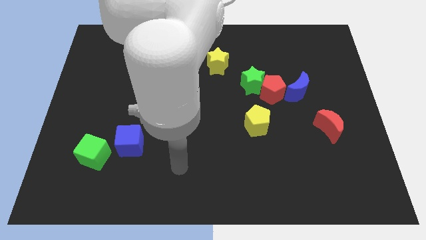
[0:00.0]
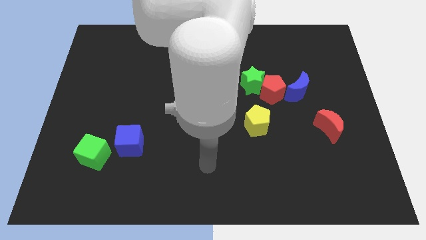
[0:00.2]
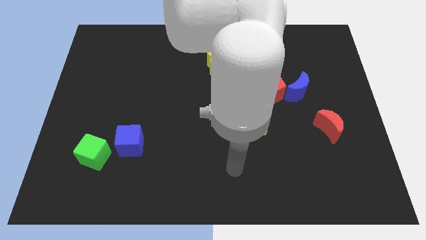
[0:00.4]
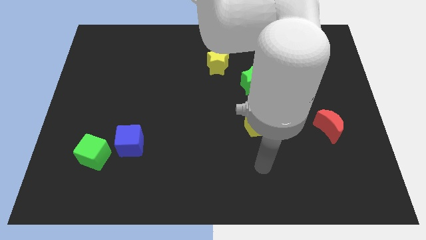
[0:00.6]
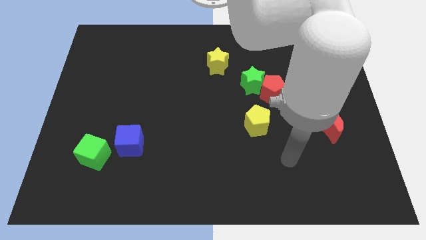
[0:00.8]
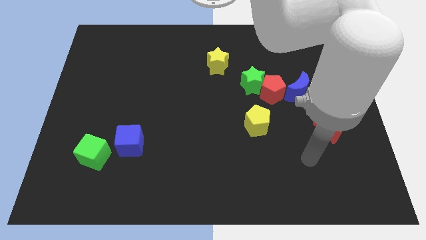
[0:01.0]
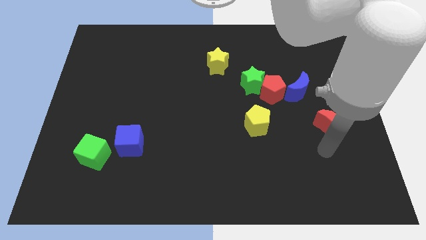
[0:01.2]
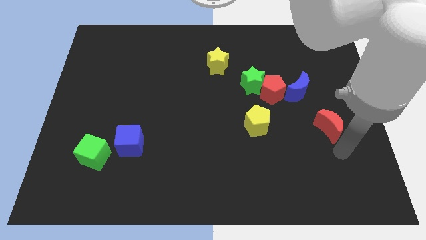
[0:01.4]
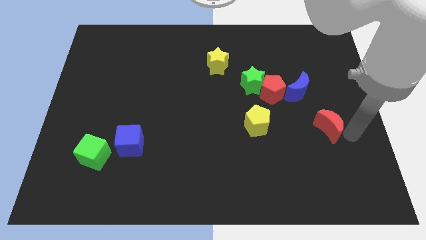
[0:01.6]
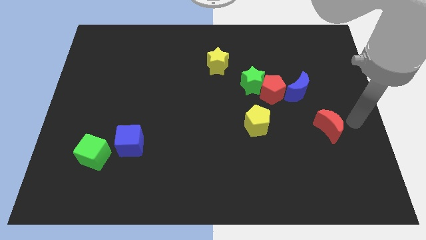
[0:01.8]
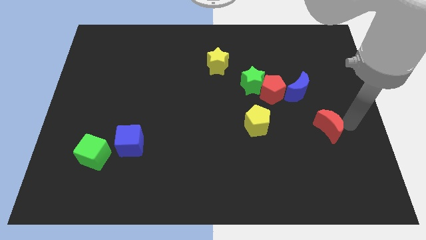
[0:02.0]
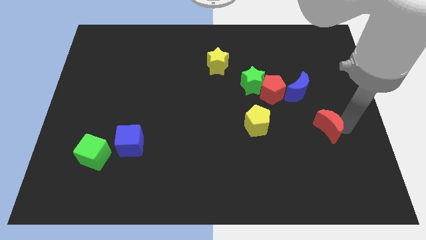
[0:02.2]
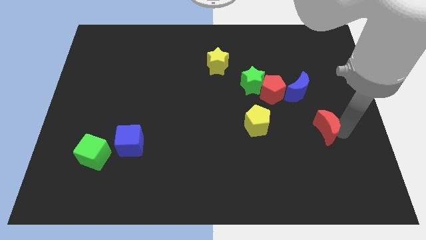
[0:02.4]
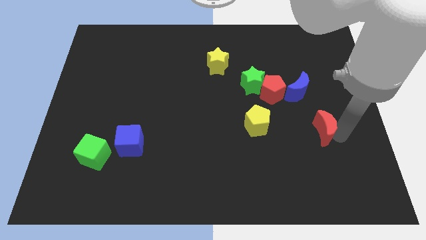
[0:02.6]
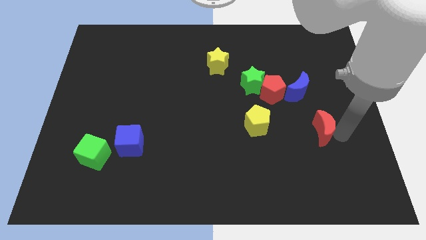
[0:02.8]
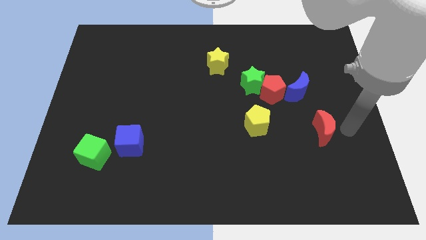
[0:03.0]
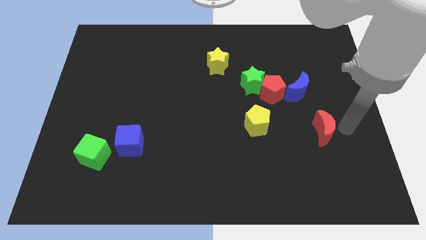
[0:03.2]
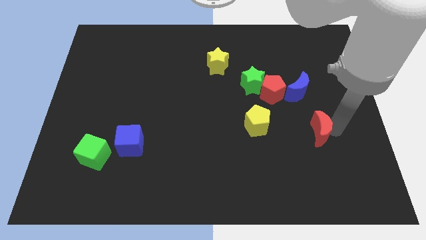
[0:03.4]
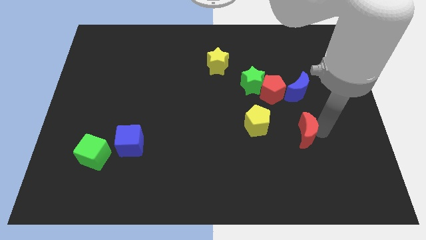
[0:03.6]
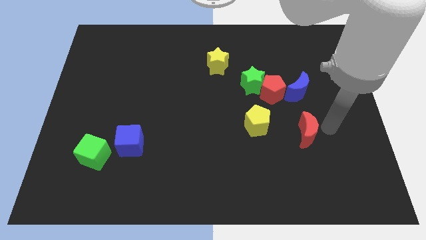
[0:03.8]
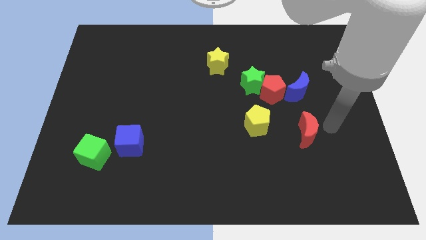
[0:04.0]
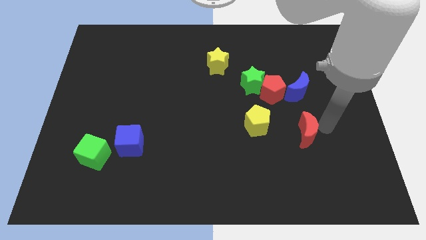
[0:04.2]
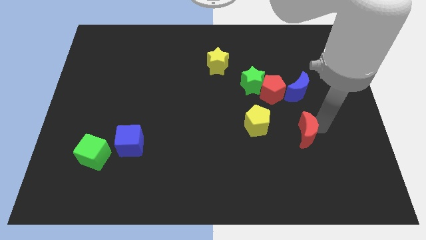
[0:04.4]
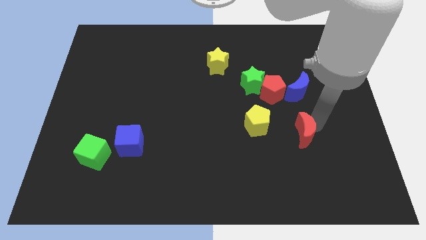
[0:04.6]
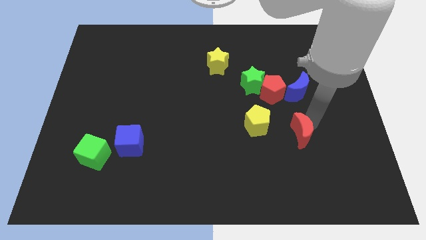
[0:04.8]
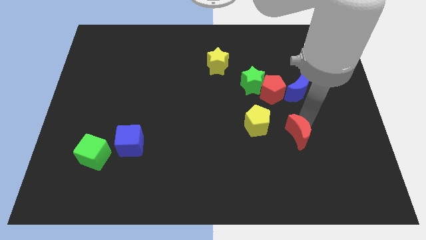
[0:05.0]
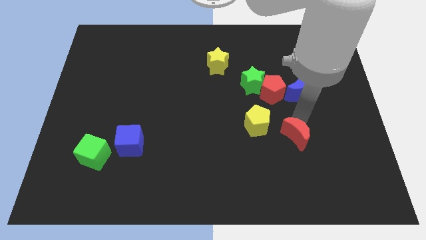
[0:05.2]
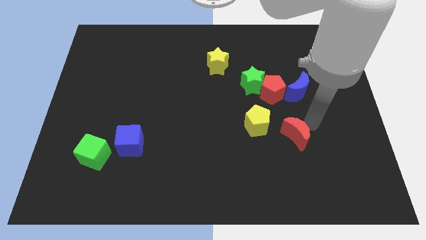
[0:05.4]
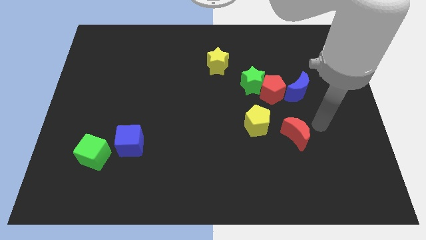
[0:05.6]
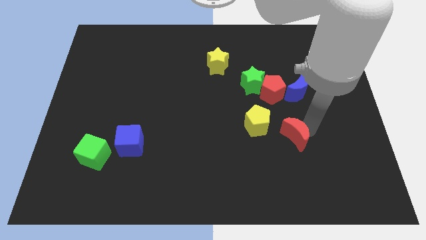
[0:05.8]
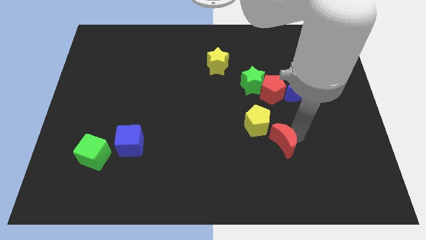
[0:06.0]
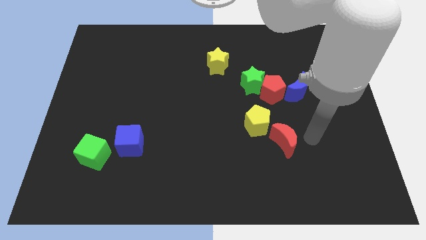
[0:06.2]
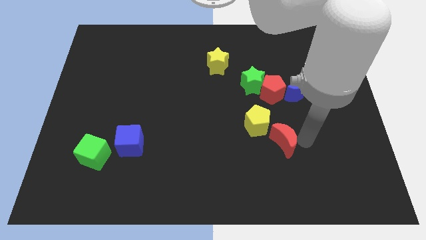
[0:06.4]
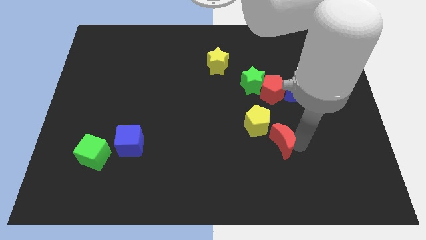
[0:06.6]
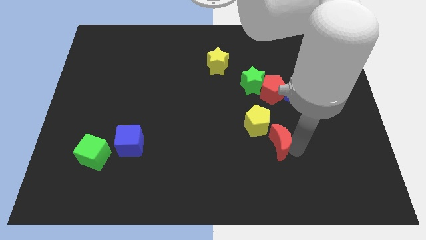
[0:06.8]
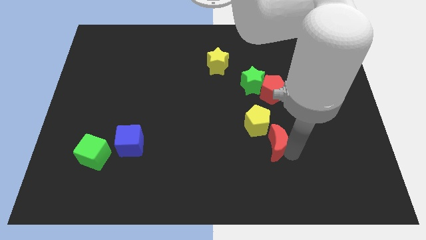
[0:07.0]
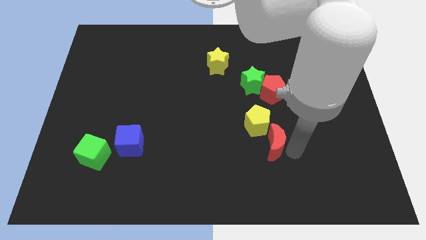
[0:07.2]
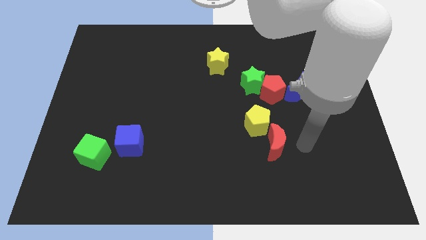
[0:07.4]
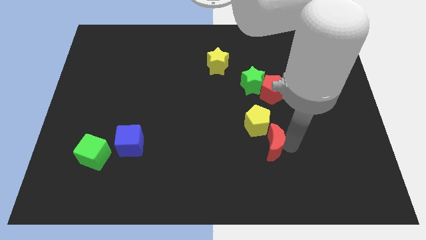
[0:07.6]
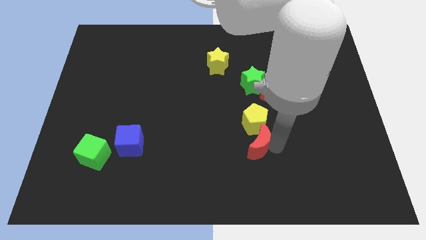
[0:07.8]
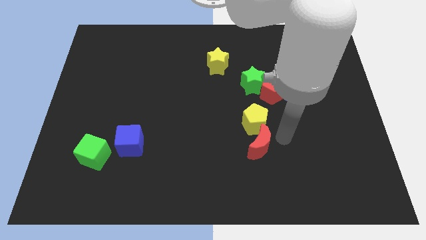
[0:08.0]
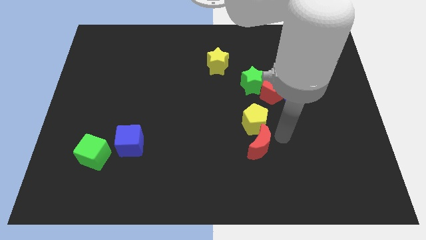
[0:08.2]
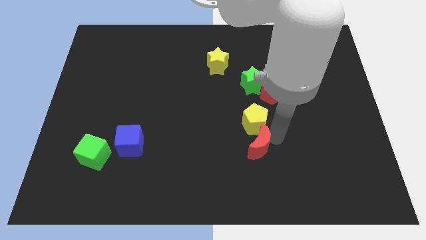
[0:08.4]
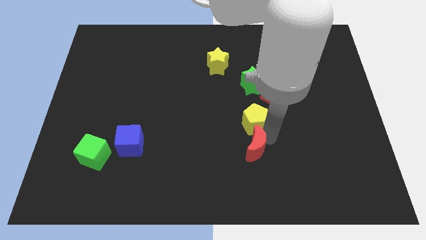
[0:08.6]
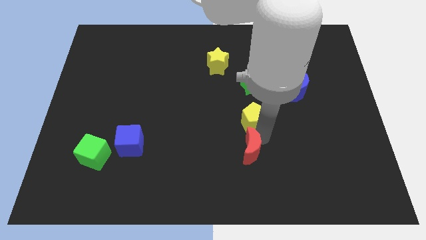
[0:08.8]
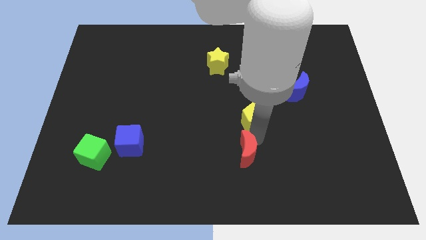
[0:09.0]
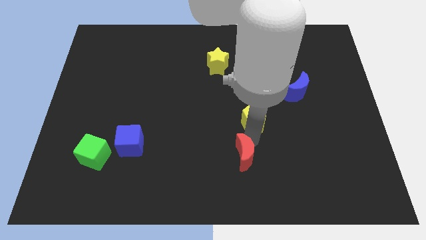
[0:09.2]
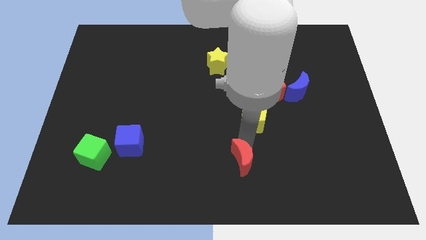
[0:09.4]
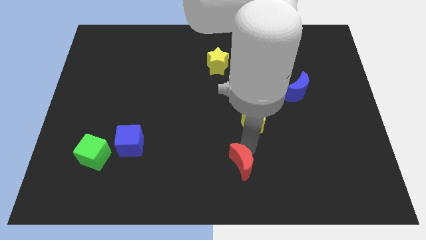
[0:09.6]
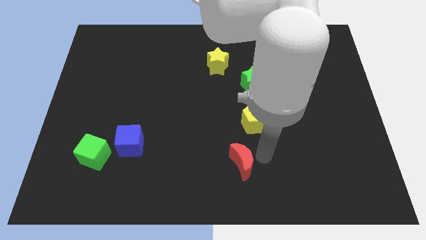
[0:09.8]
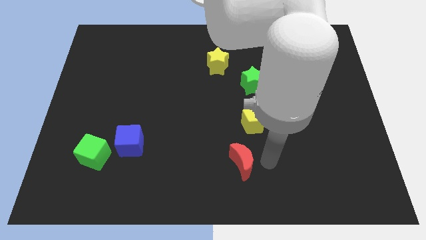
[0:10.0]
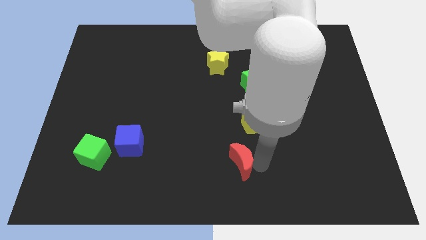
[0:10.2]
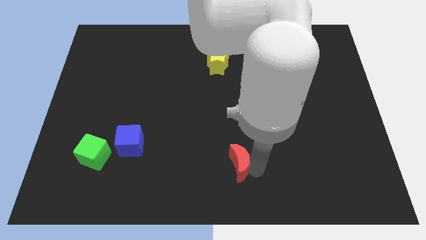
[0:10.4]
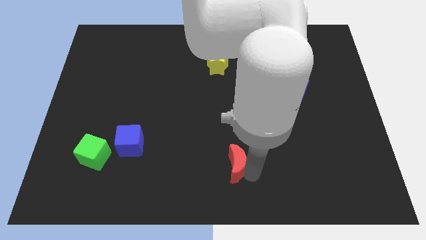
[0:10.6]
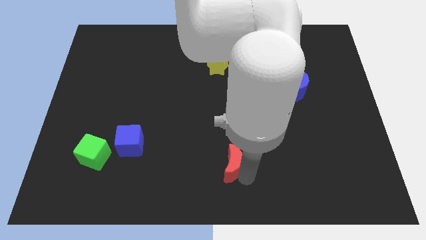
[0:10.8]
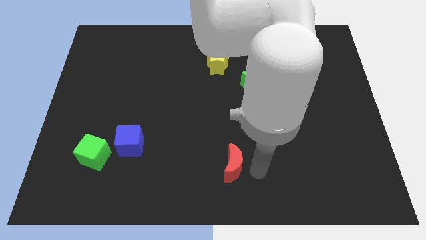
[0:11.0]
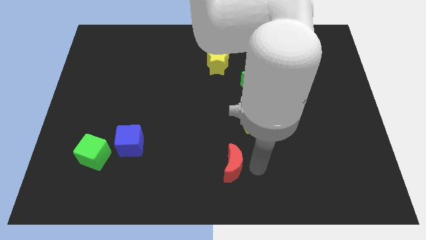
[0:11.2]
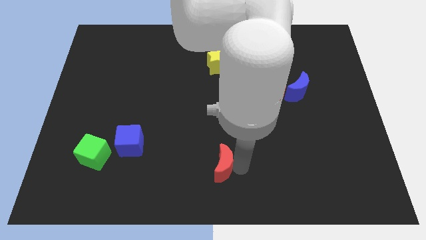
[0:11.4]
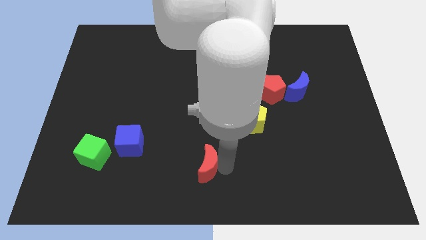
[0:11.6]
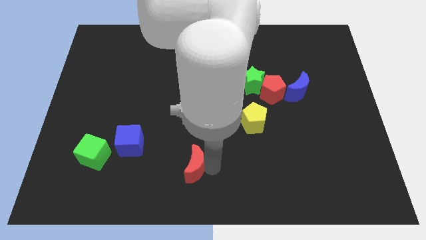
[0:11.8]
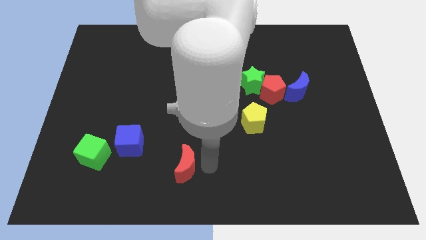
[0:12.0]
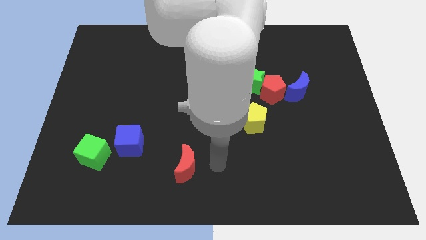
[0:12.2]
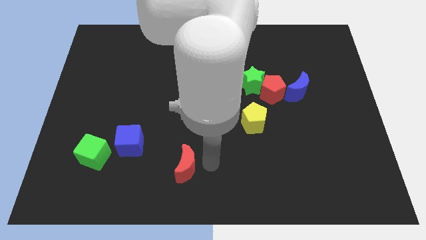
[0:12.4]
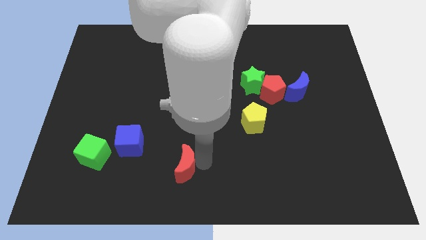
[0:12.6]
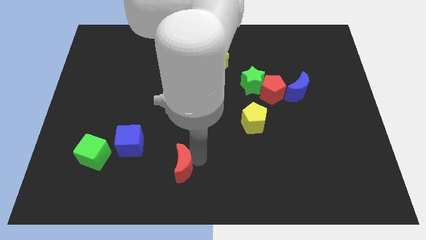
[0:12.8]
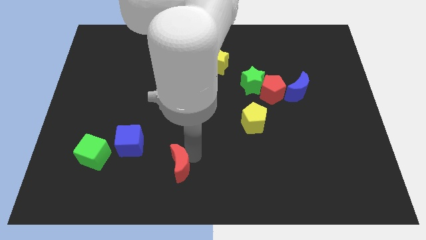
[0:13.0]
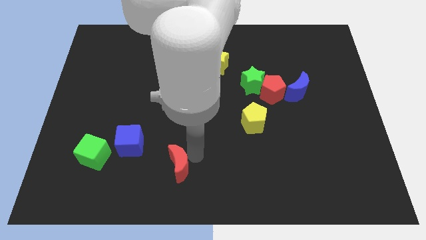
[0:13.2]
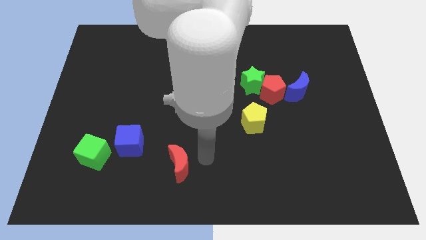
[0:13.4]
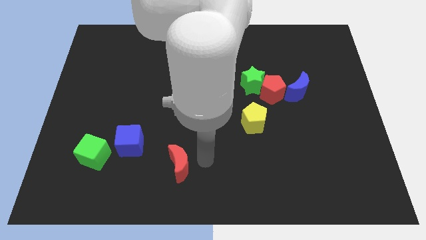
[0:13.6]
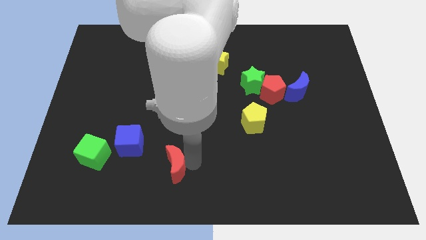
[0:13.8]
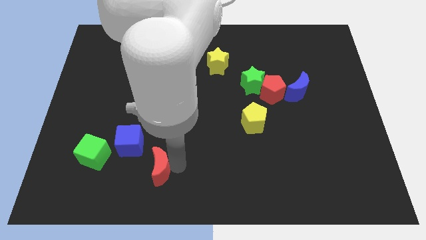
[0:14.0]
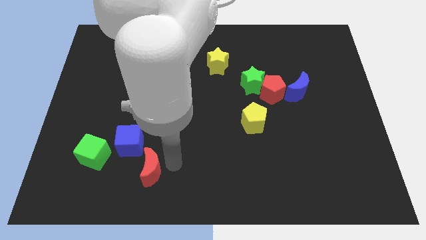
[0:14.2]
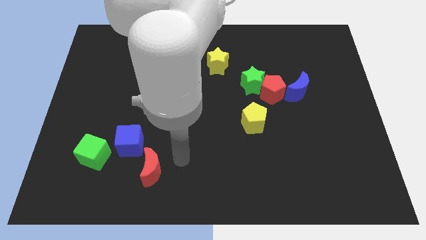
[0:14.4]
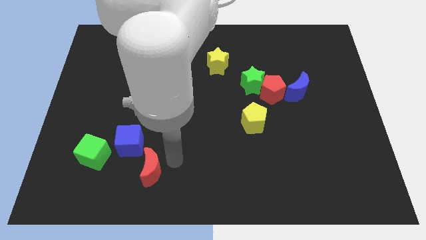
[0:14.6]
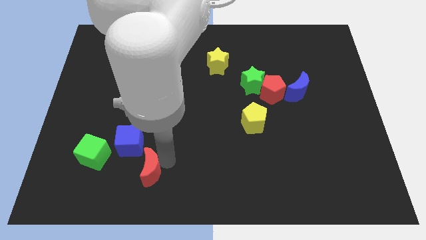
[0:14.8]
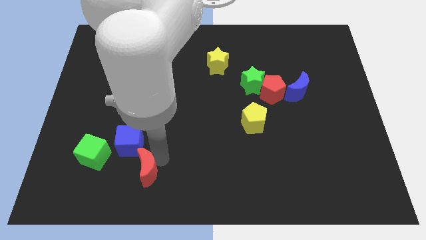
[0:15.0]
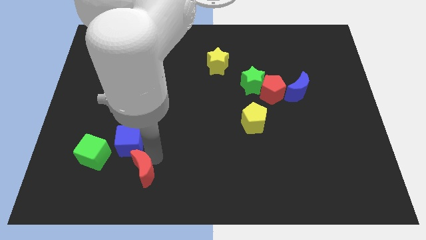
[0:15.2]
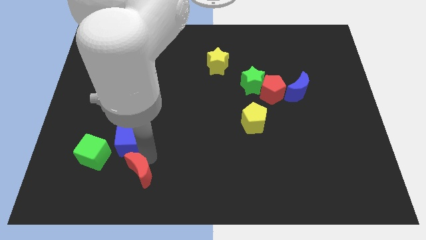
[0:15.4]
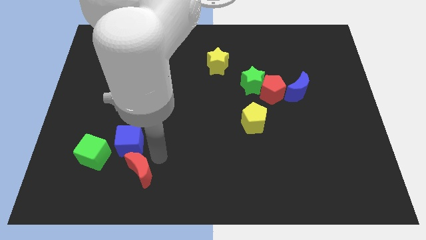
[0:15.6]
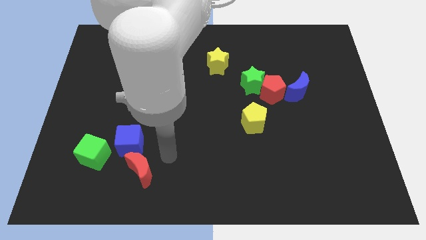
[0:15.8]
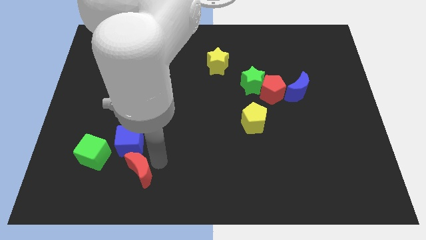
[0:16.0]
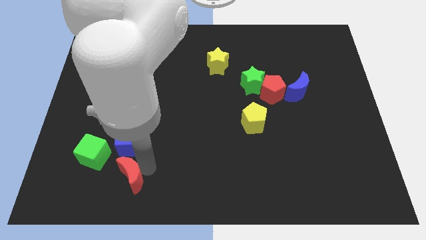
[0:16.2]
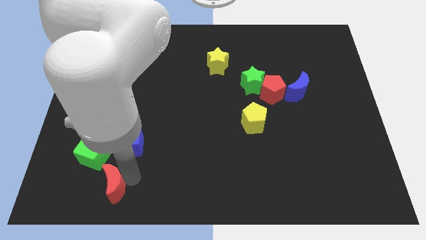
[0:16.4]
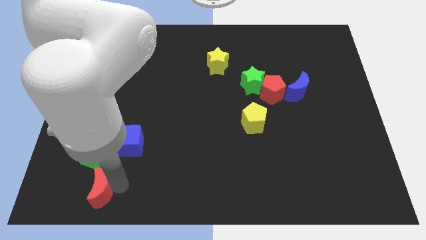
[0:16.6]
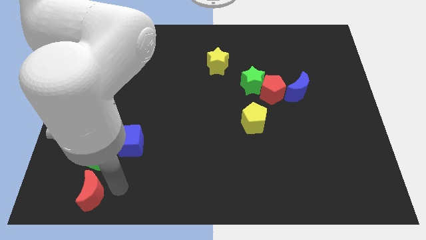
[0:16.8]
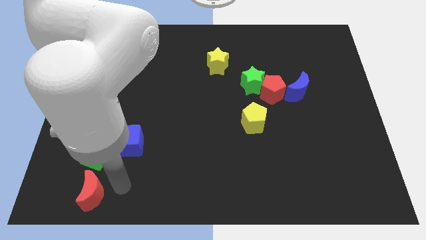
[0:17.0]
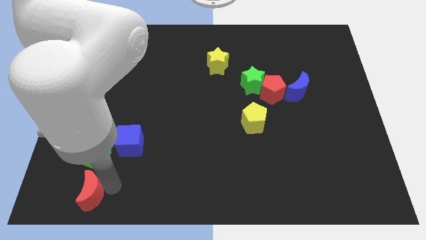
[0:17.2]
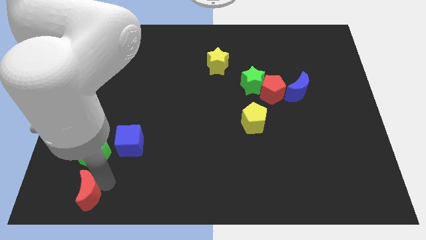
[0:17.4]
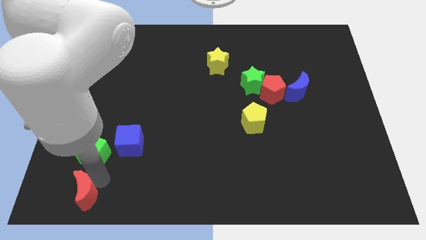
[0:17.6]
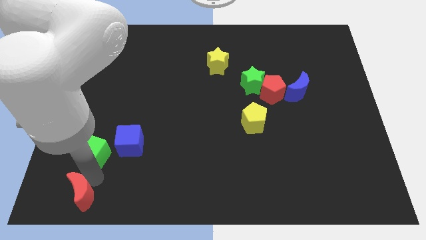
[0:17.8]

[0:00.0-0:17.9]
push the red moon to the bottom left corner
